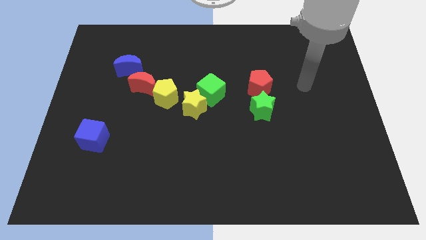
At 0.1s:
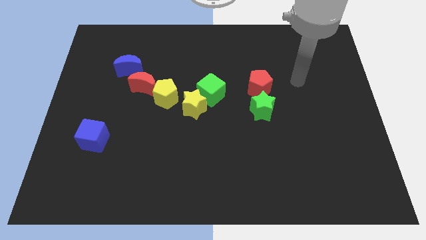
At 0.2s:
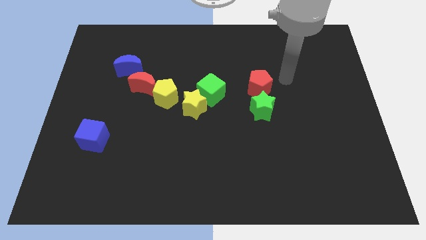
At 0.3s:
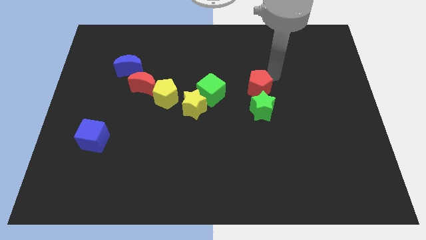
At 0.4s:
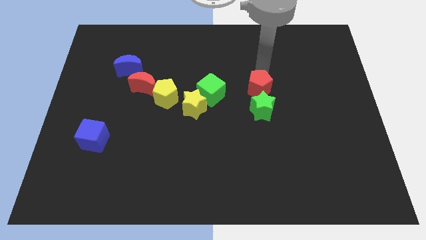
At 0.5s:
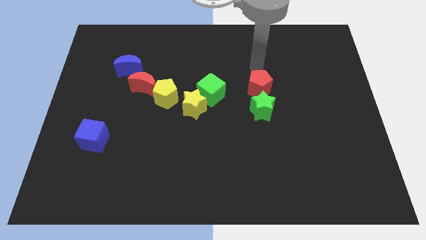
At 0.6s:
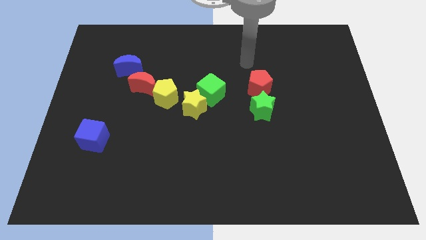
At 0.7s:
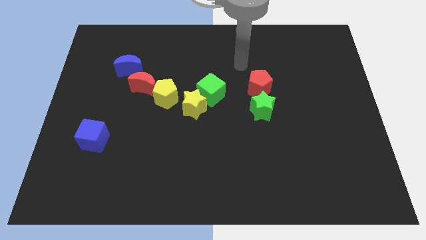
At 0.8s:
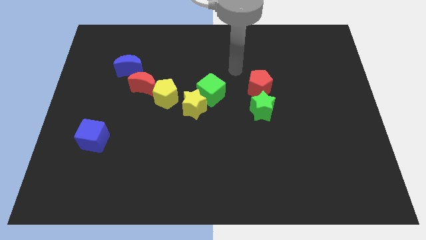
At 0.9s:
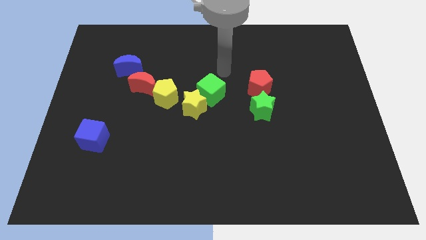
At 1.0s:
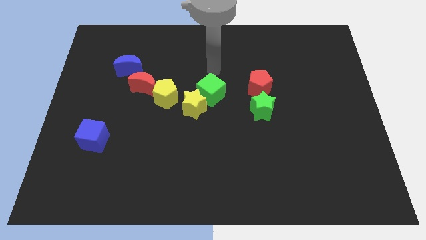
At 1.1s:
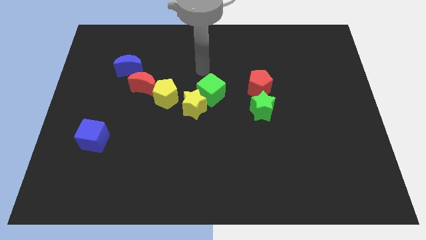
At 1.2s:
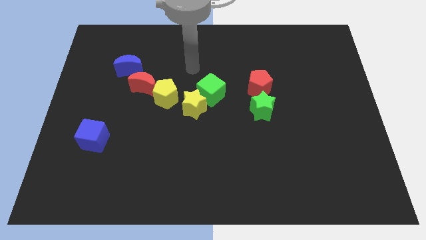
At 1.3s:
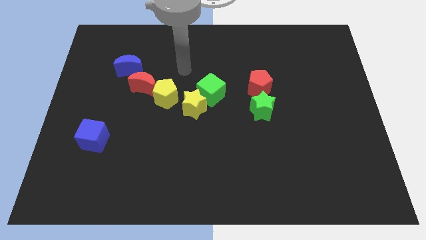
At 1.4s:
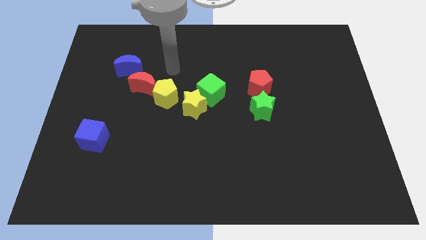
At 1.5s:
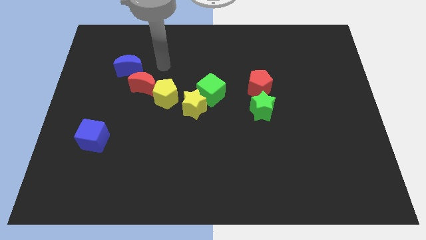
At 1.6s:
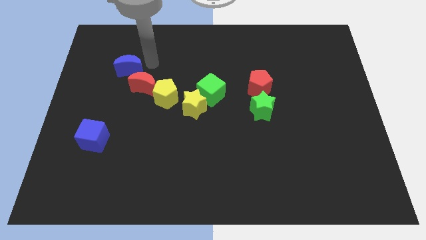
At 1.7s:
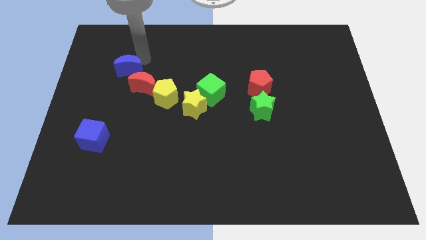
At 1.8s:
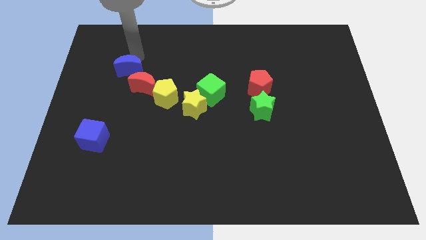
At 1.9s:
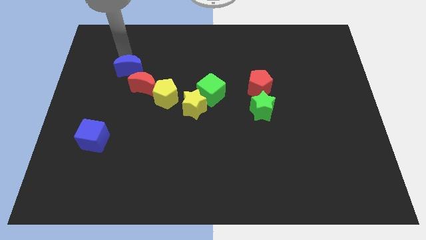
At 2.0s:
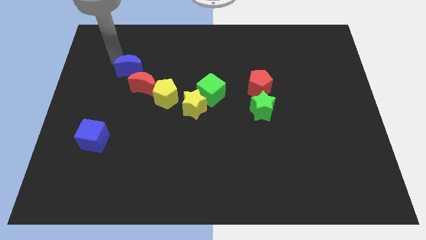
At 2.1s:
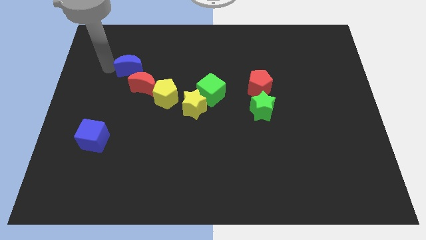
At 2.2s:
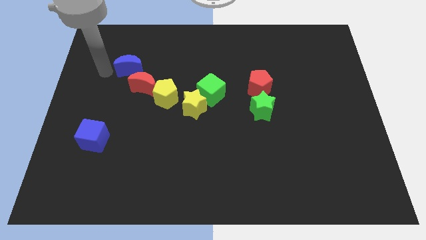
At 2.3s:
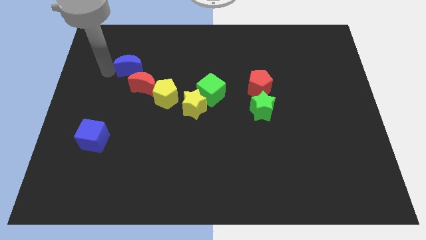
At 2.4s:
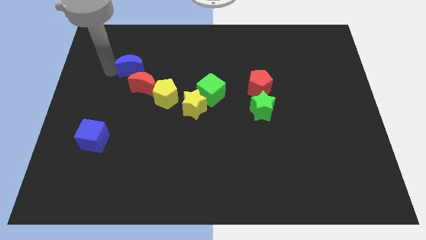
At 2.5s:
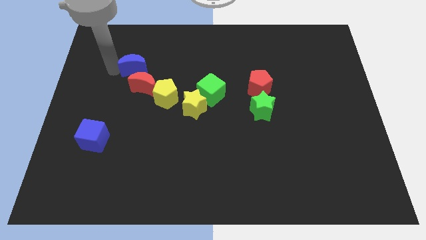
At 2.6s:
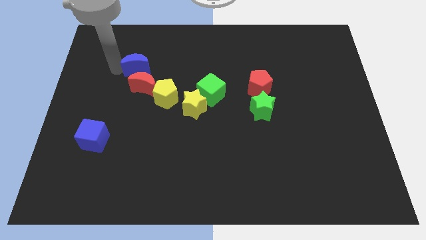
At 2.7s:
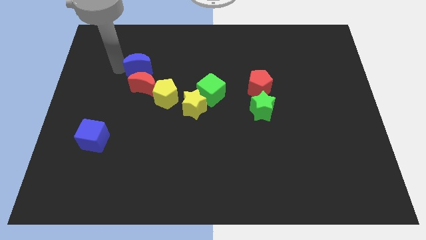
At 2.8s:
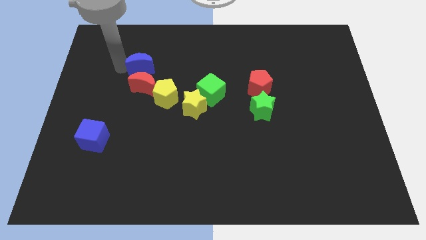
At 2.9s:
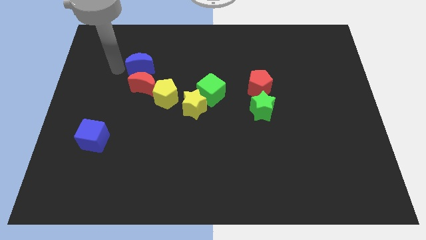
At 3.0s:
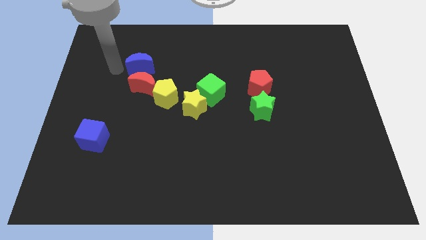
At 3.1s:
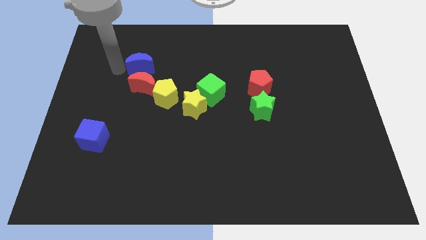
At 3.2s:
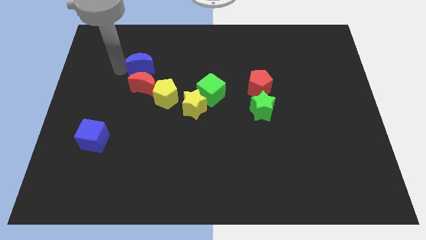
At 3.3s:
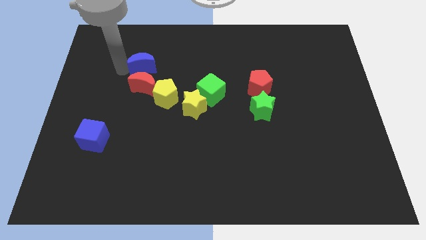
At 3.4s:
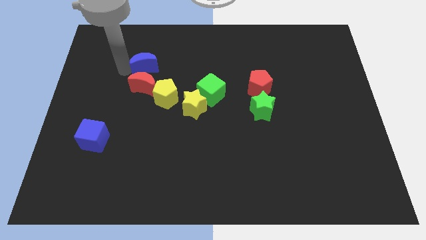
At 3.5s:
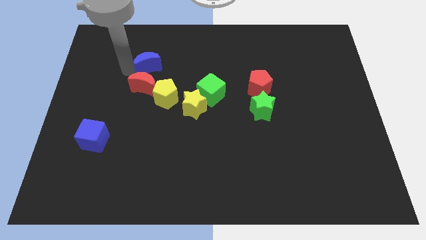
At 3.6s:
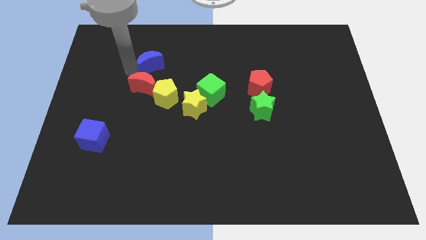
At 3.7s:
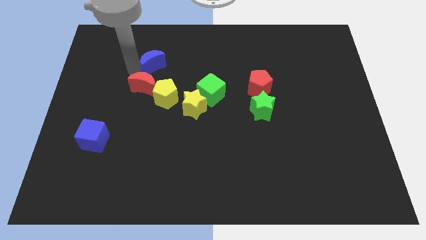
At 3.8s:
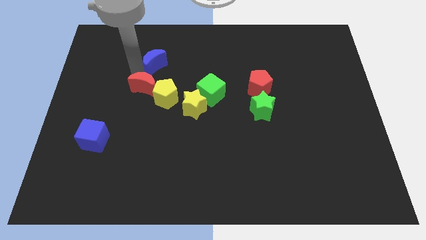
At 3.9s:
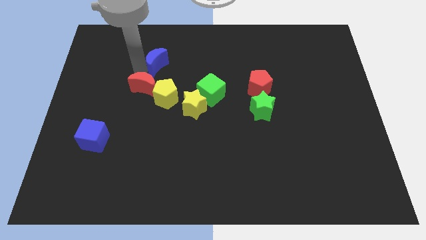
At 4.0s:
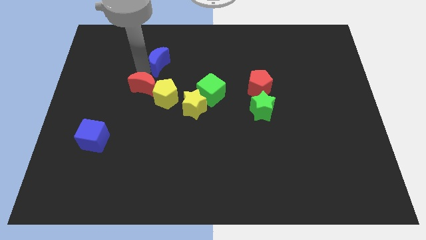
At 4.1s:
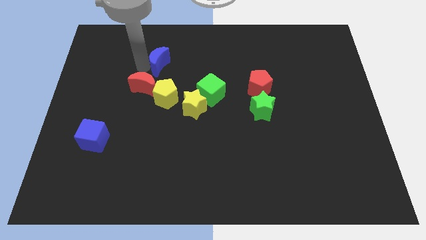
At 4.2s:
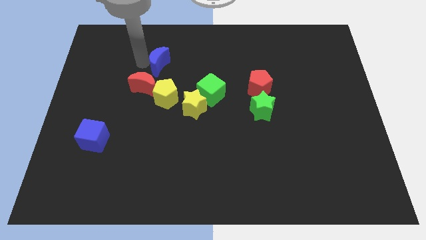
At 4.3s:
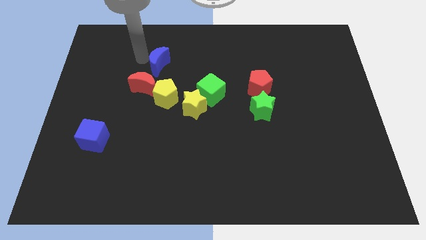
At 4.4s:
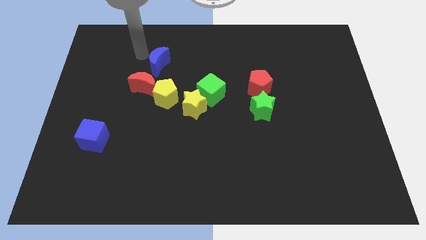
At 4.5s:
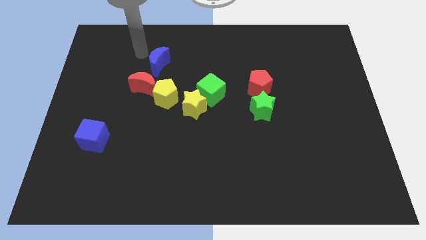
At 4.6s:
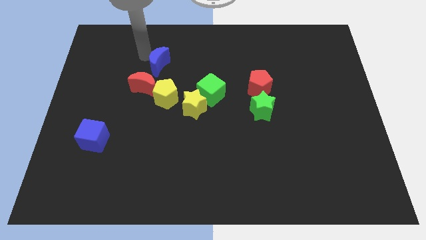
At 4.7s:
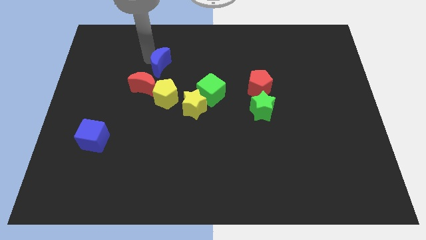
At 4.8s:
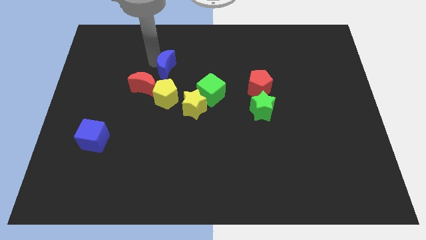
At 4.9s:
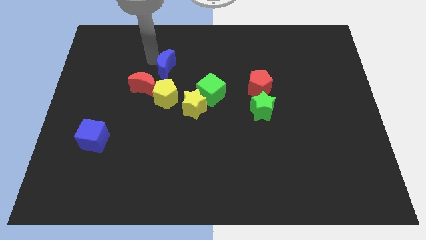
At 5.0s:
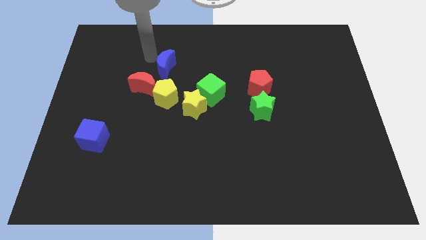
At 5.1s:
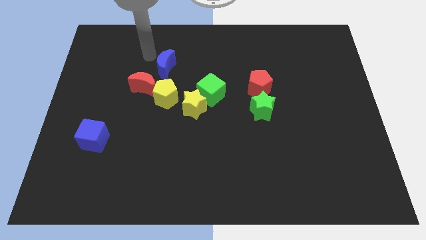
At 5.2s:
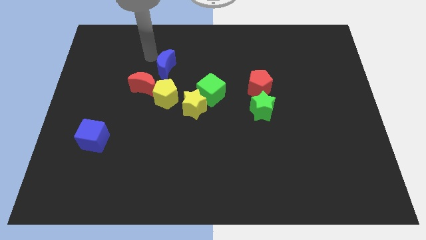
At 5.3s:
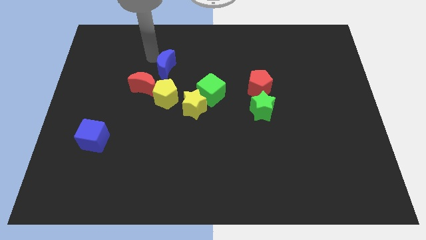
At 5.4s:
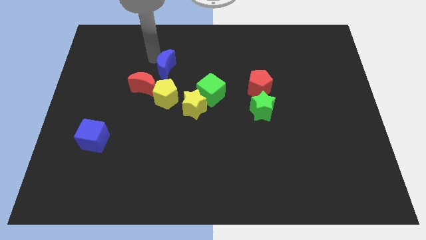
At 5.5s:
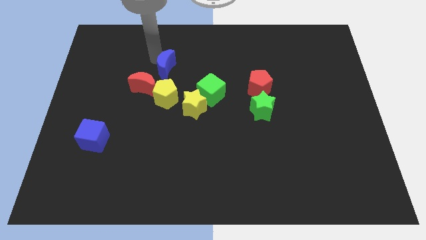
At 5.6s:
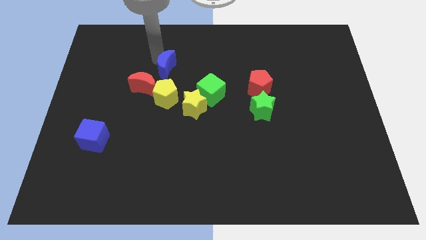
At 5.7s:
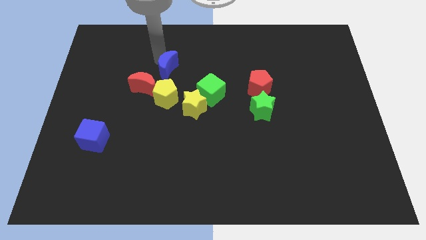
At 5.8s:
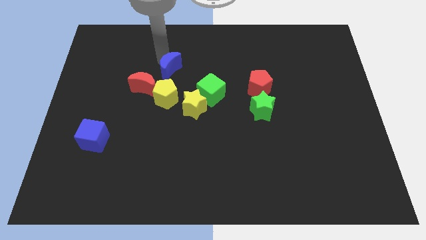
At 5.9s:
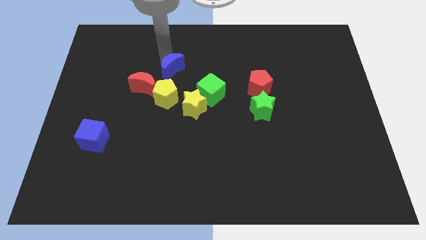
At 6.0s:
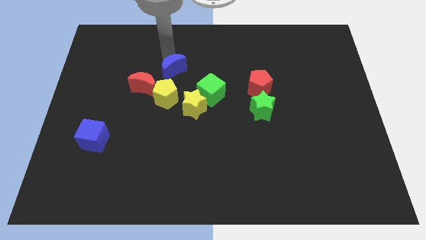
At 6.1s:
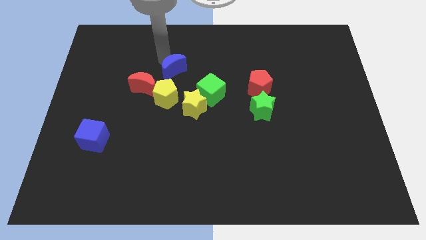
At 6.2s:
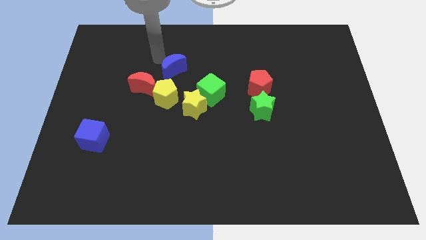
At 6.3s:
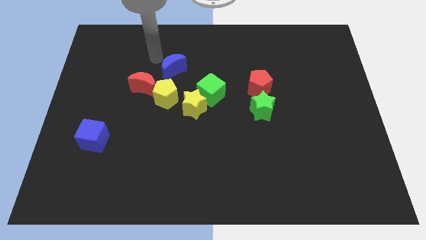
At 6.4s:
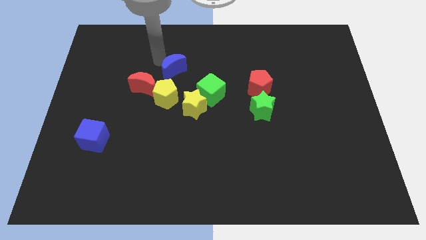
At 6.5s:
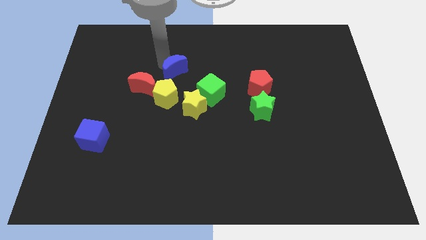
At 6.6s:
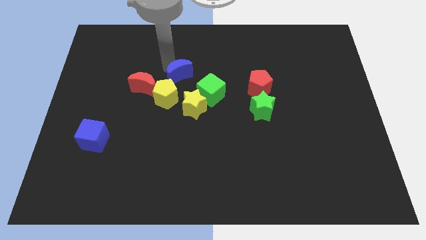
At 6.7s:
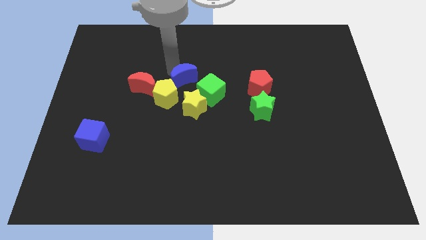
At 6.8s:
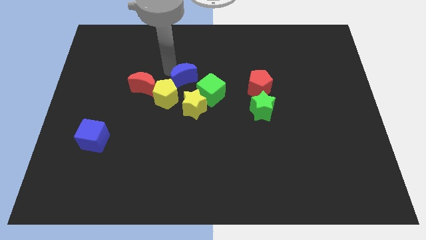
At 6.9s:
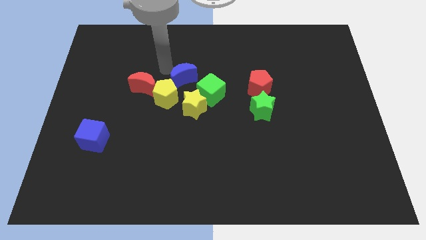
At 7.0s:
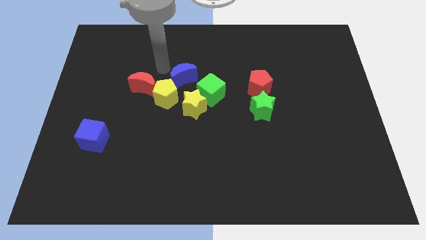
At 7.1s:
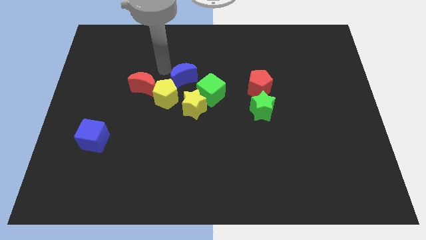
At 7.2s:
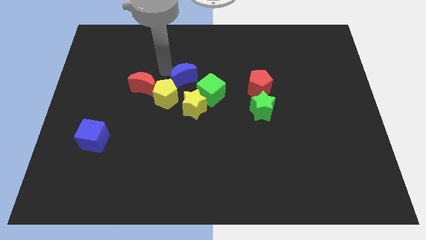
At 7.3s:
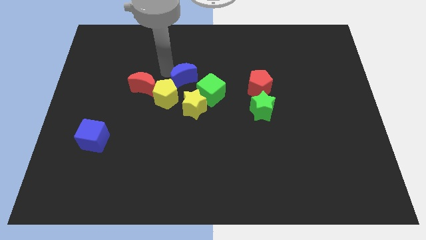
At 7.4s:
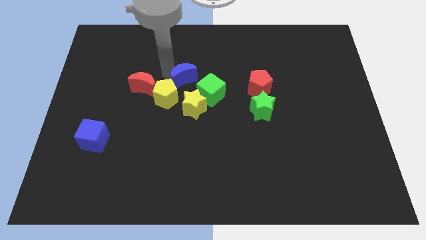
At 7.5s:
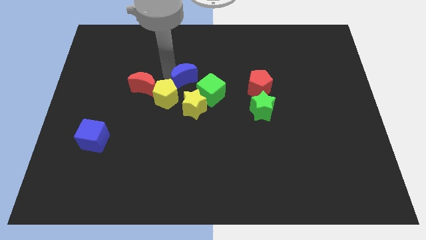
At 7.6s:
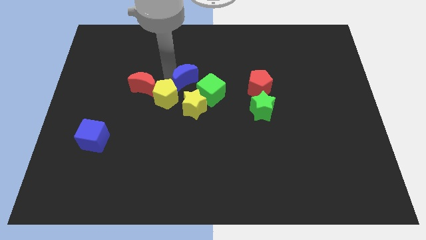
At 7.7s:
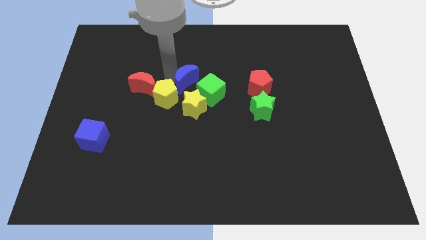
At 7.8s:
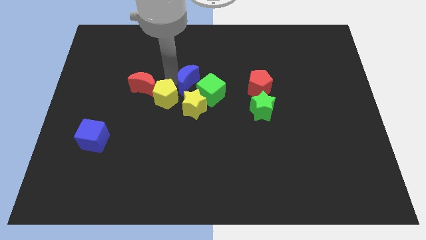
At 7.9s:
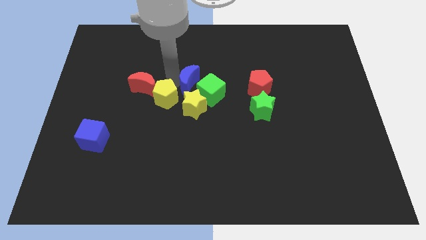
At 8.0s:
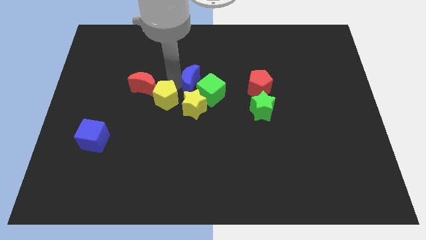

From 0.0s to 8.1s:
slide the blue moon towards the green cube
